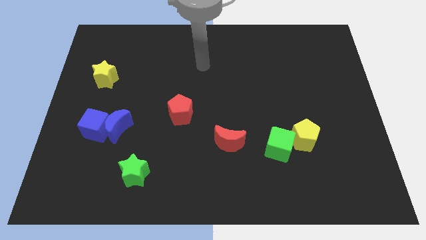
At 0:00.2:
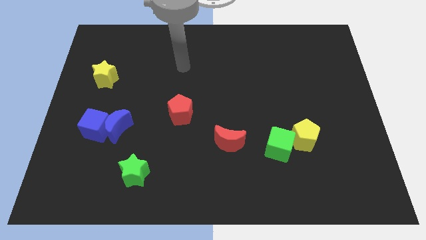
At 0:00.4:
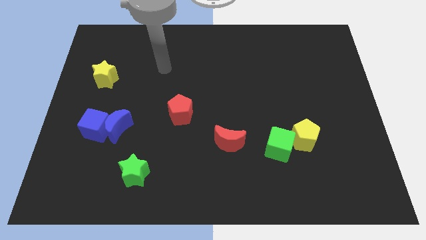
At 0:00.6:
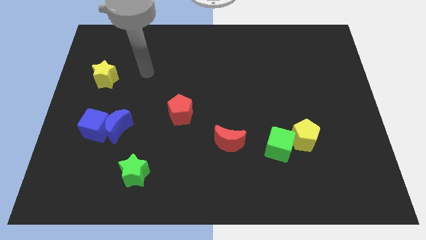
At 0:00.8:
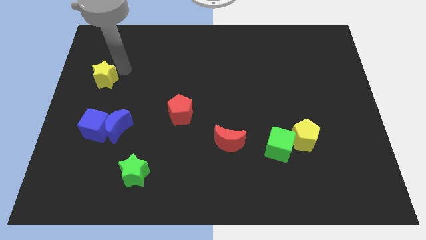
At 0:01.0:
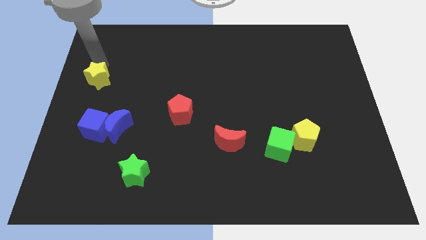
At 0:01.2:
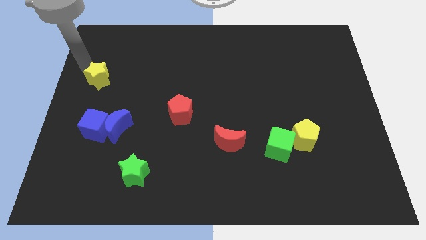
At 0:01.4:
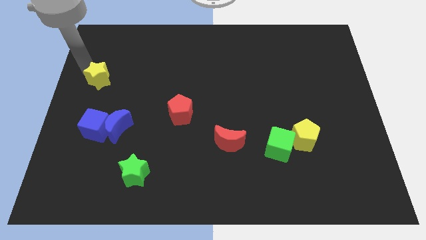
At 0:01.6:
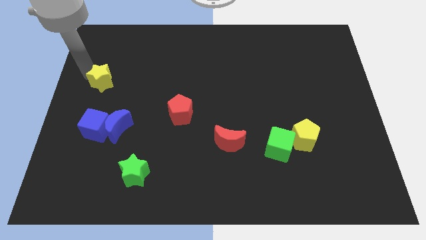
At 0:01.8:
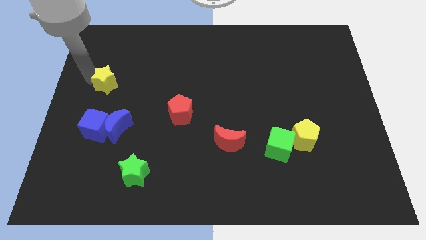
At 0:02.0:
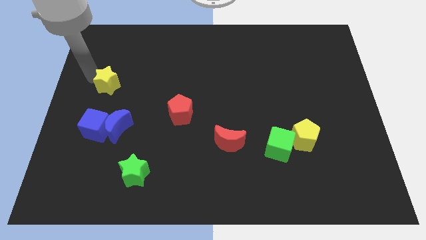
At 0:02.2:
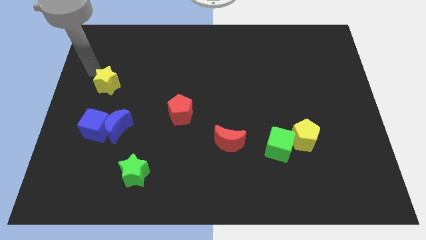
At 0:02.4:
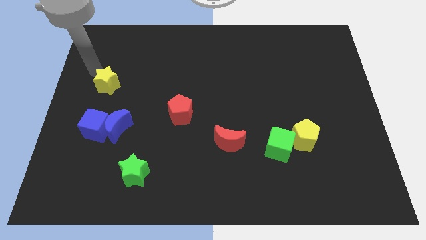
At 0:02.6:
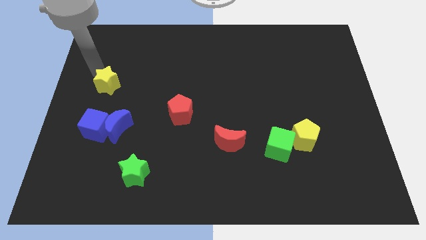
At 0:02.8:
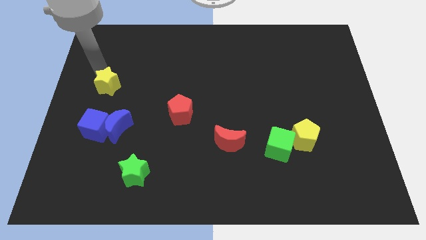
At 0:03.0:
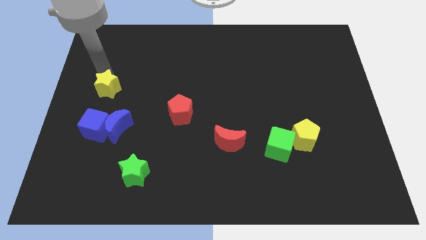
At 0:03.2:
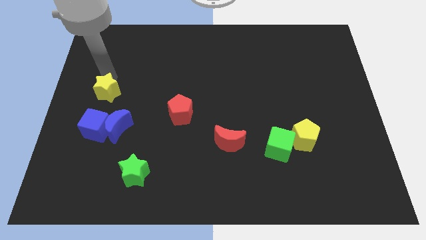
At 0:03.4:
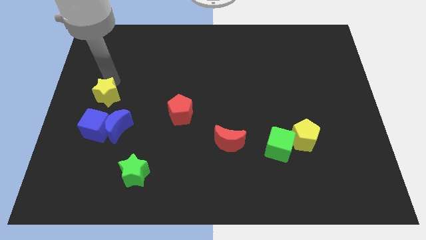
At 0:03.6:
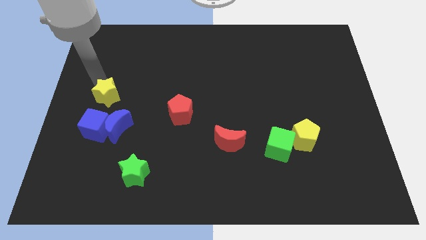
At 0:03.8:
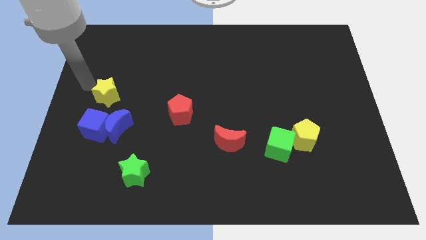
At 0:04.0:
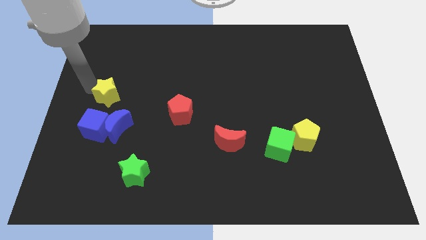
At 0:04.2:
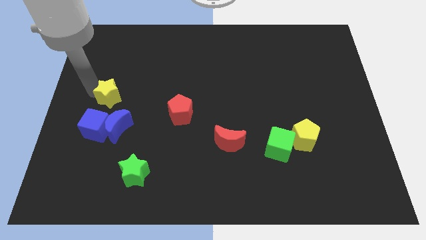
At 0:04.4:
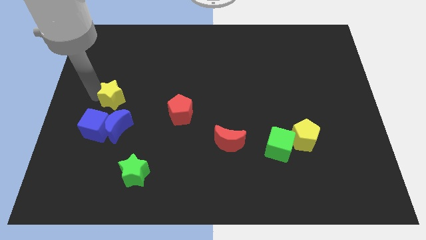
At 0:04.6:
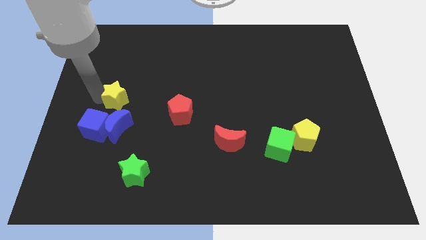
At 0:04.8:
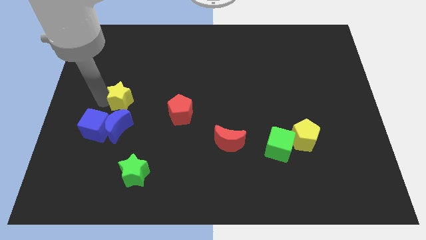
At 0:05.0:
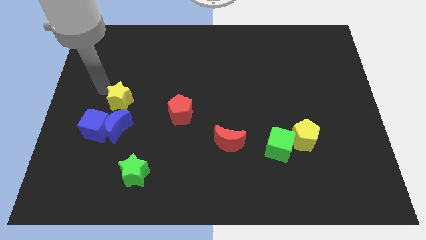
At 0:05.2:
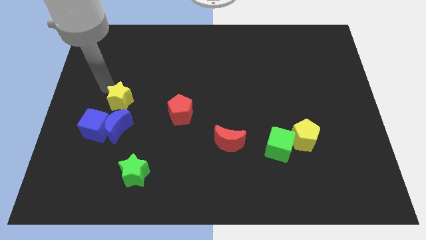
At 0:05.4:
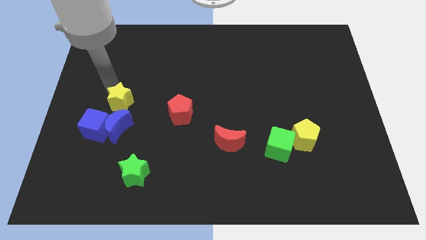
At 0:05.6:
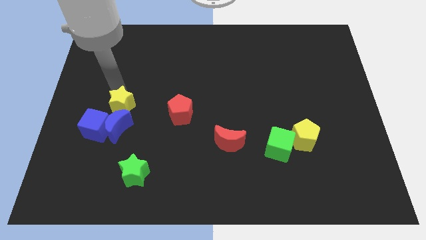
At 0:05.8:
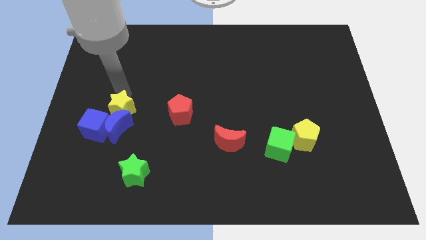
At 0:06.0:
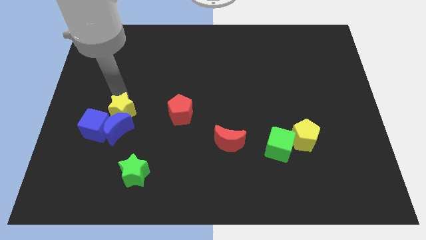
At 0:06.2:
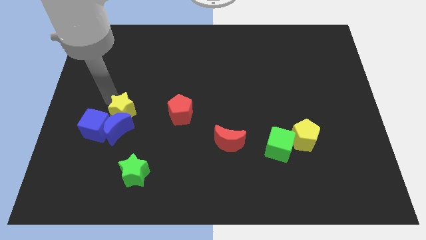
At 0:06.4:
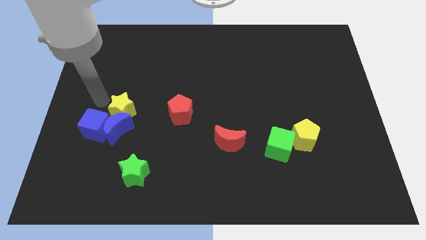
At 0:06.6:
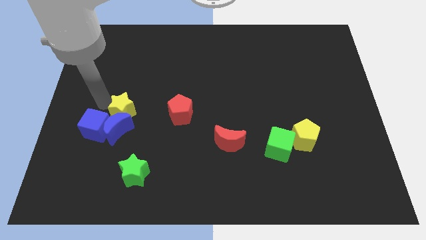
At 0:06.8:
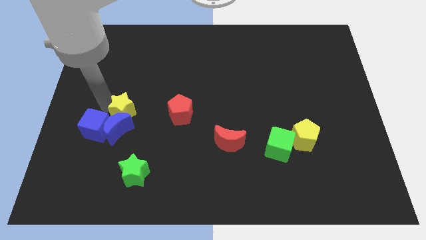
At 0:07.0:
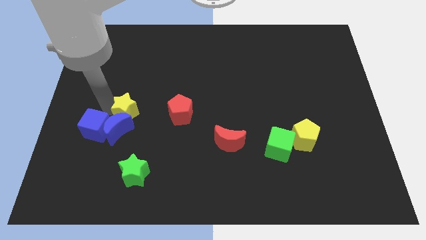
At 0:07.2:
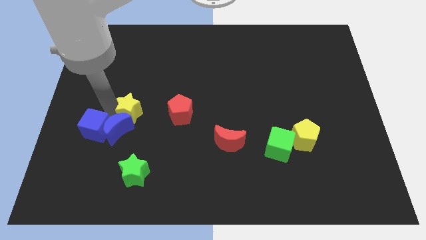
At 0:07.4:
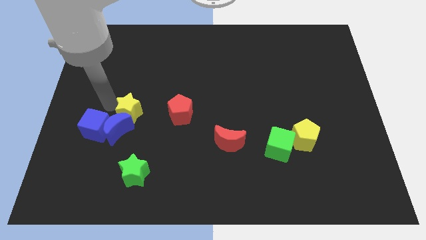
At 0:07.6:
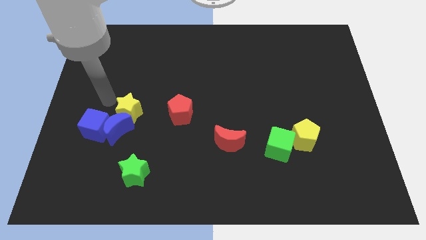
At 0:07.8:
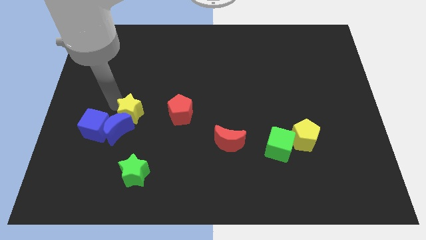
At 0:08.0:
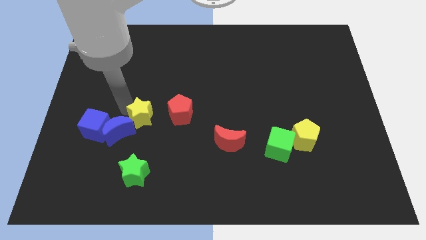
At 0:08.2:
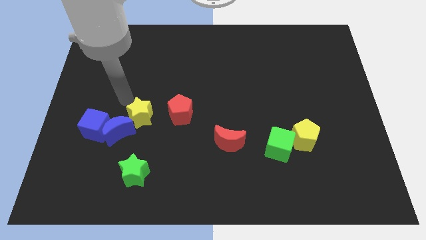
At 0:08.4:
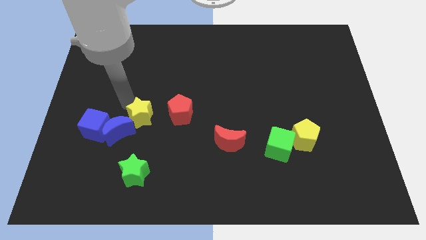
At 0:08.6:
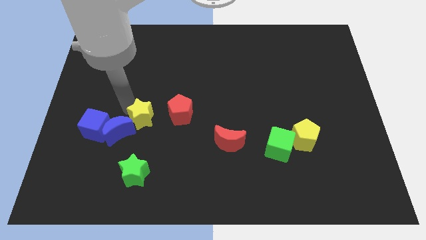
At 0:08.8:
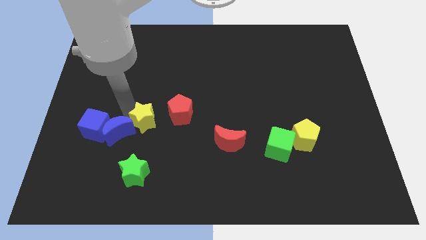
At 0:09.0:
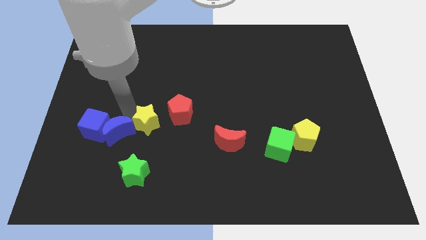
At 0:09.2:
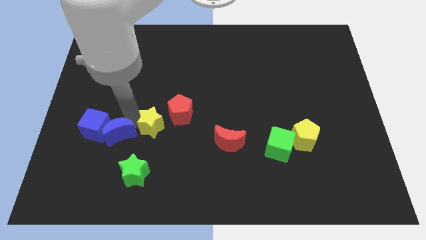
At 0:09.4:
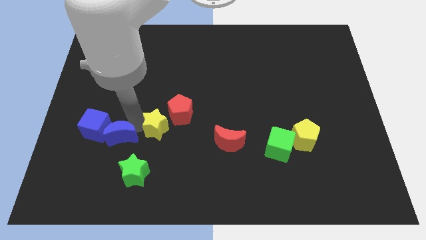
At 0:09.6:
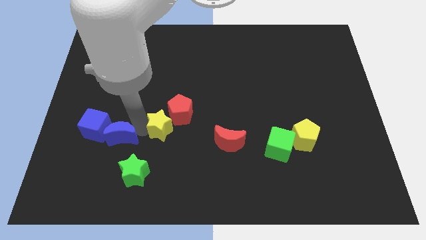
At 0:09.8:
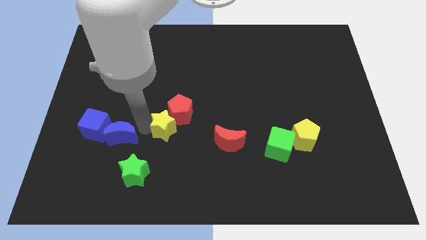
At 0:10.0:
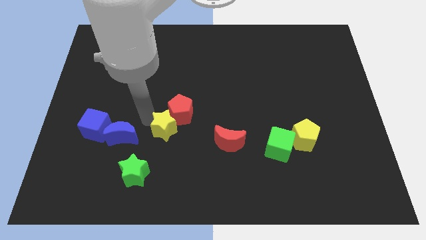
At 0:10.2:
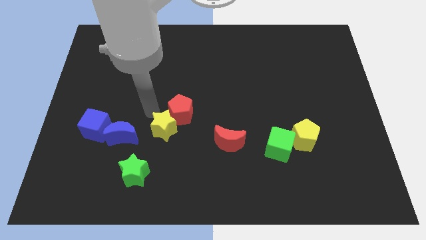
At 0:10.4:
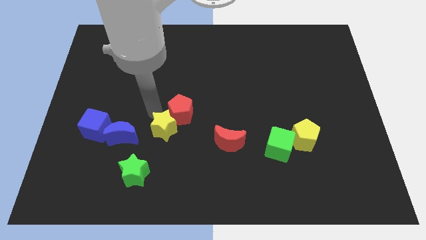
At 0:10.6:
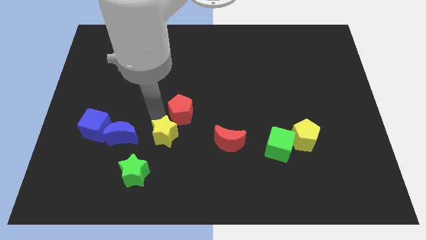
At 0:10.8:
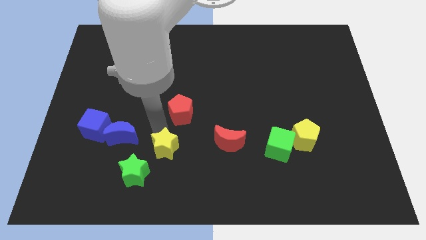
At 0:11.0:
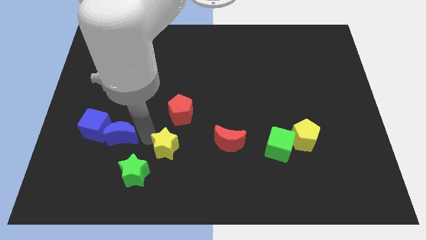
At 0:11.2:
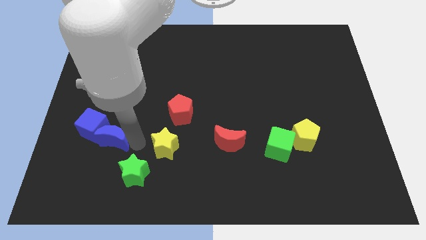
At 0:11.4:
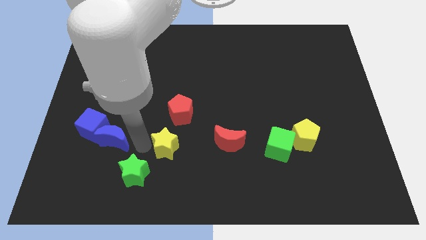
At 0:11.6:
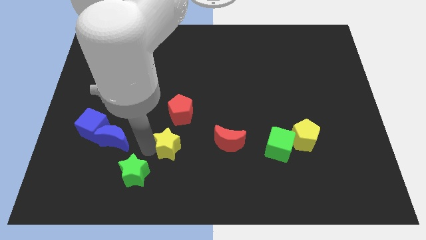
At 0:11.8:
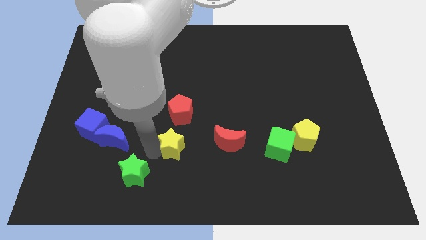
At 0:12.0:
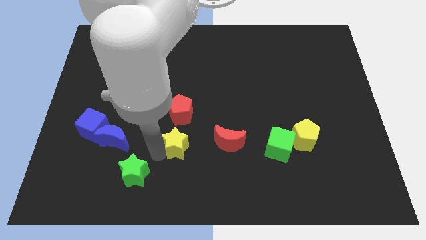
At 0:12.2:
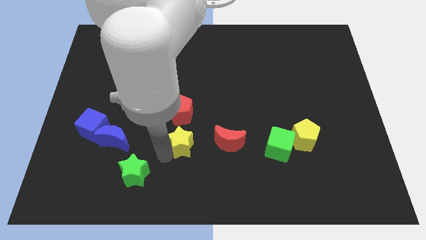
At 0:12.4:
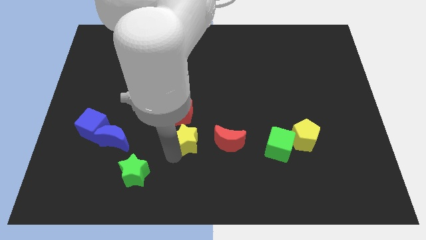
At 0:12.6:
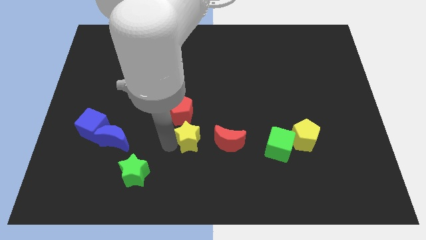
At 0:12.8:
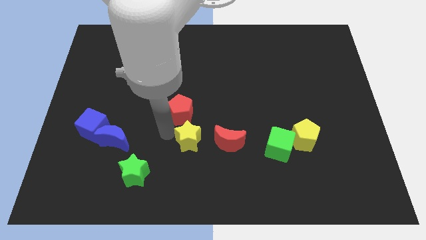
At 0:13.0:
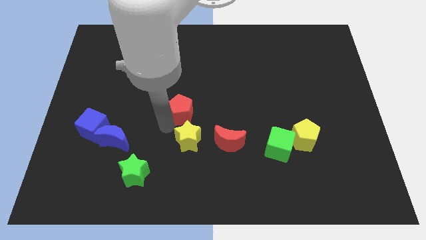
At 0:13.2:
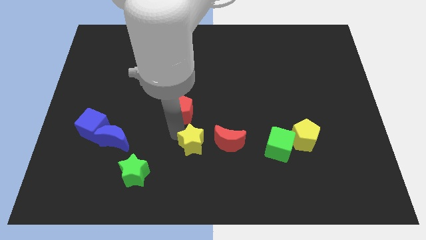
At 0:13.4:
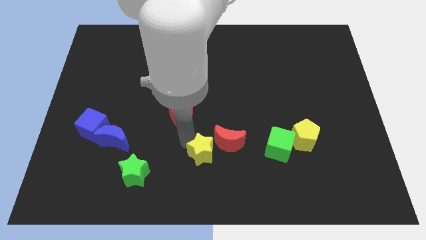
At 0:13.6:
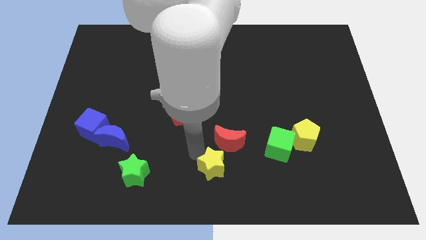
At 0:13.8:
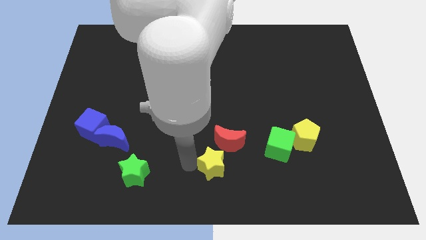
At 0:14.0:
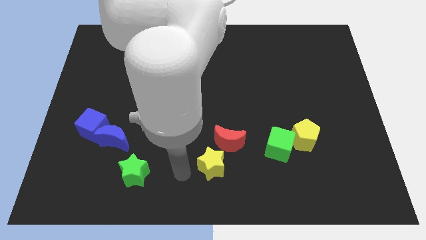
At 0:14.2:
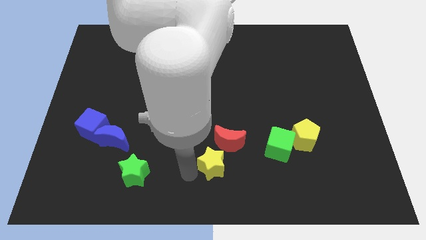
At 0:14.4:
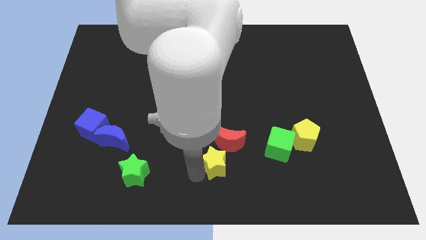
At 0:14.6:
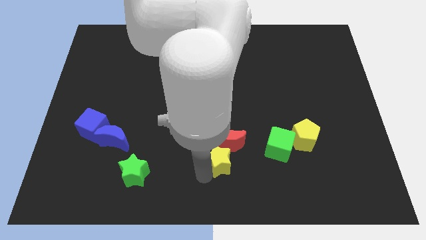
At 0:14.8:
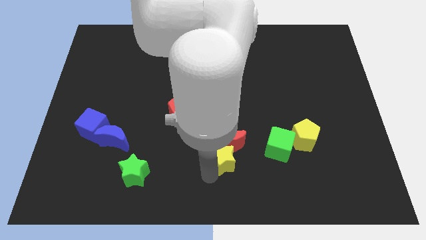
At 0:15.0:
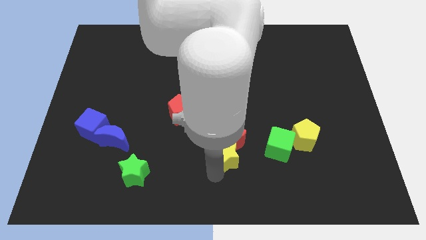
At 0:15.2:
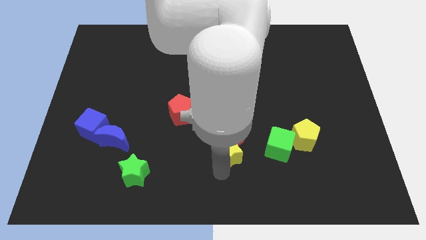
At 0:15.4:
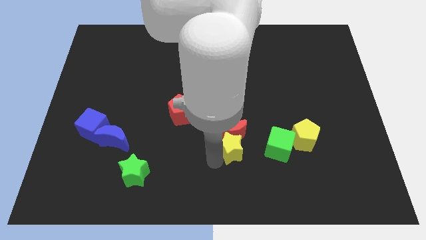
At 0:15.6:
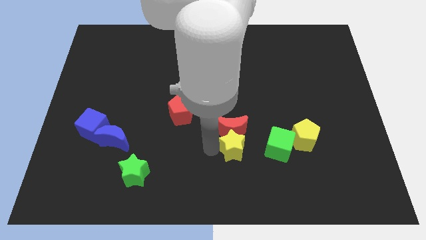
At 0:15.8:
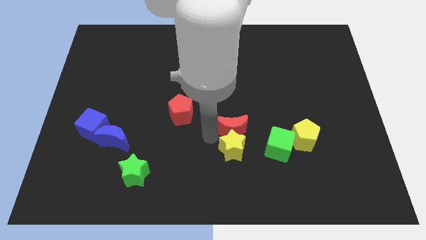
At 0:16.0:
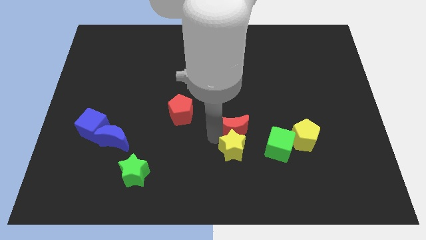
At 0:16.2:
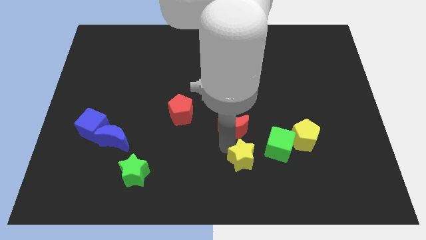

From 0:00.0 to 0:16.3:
push the yellow star diagonally down and to the left of the green cube
